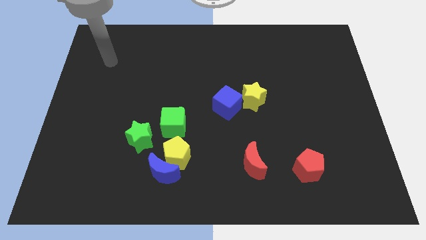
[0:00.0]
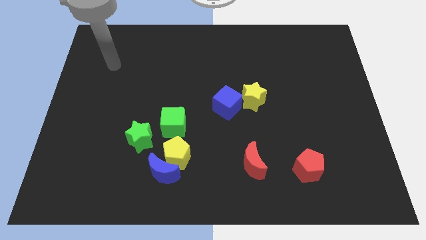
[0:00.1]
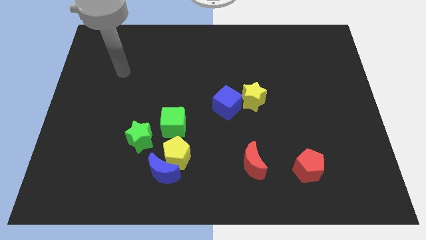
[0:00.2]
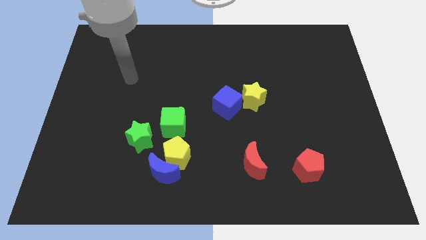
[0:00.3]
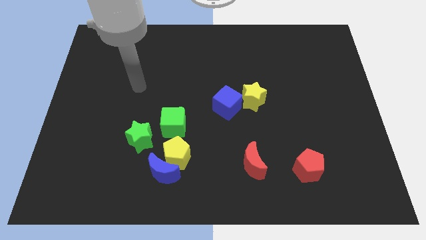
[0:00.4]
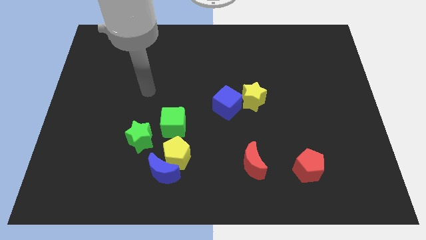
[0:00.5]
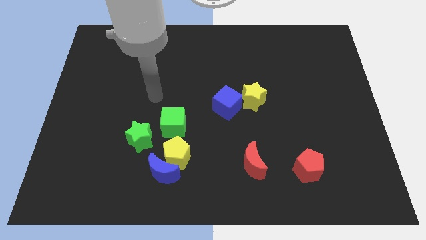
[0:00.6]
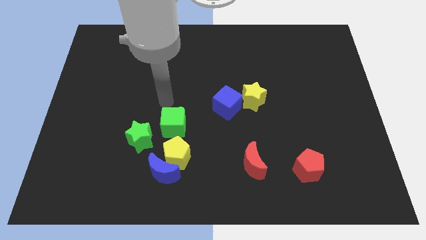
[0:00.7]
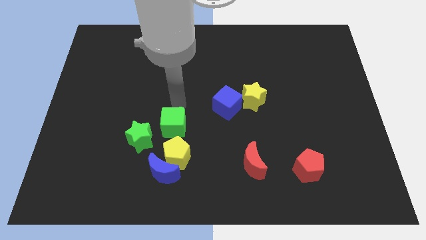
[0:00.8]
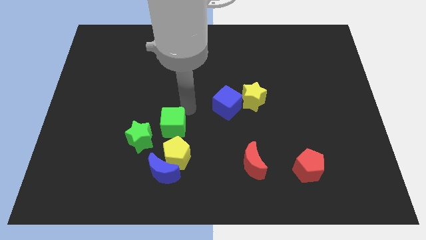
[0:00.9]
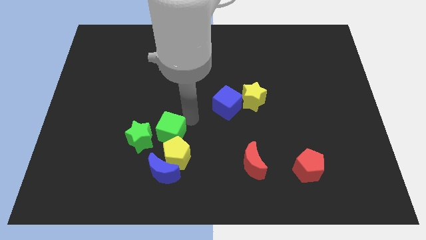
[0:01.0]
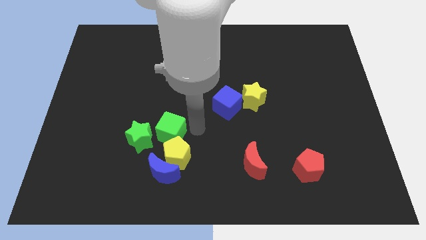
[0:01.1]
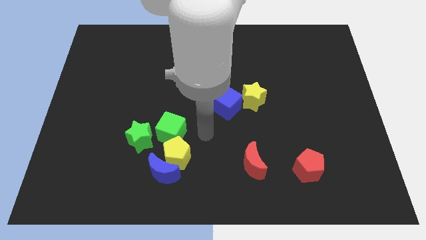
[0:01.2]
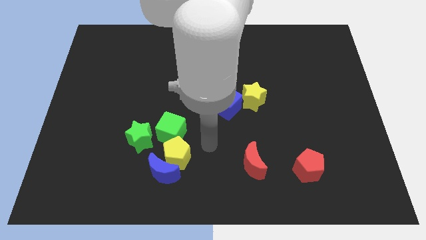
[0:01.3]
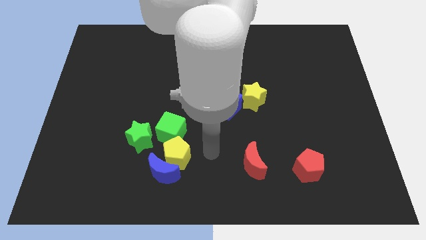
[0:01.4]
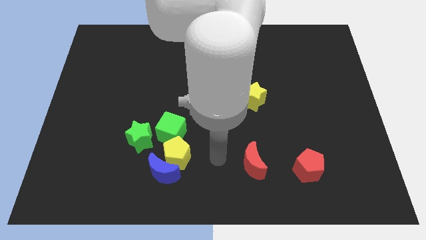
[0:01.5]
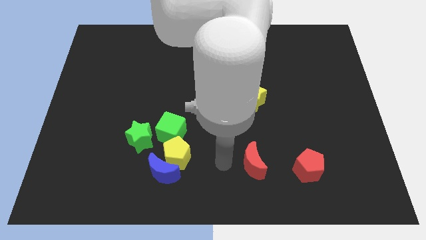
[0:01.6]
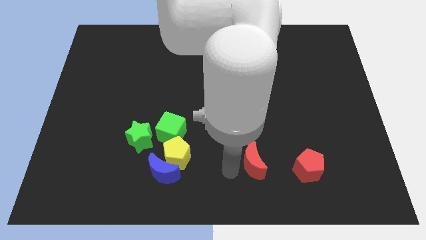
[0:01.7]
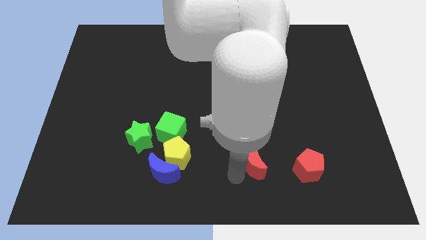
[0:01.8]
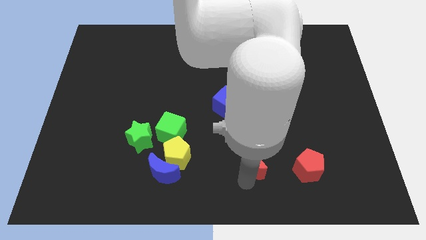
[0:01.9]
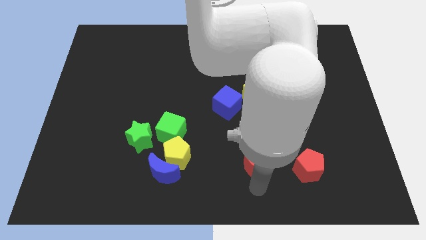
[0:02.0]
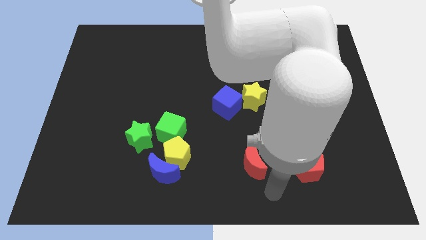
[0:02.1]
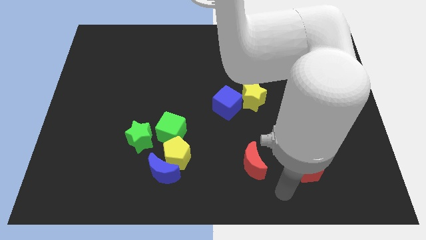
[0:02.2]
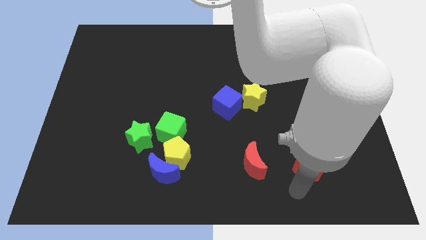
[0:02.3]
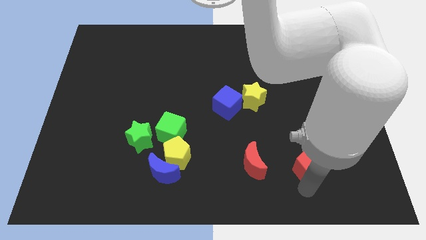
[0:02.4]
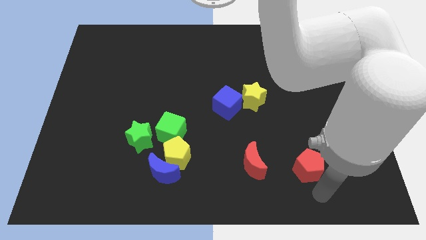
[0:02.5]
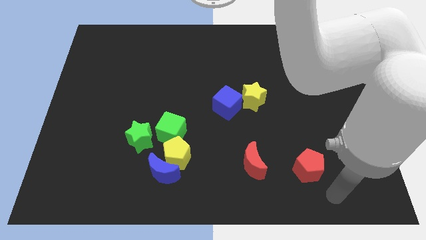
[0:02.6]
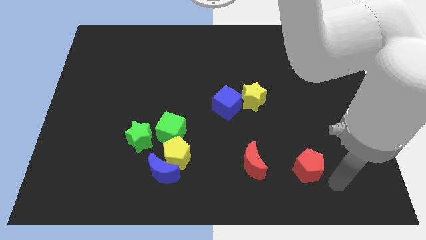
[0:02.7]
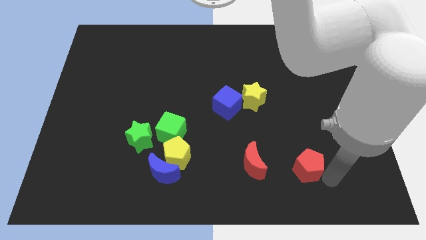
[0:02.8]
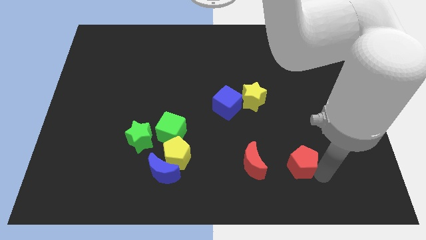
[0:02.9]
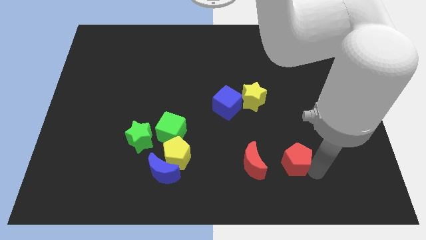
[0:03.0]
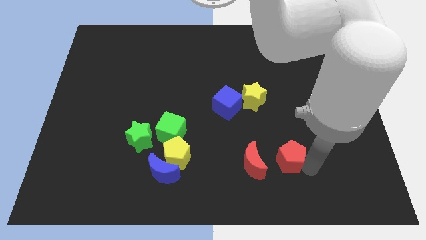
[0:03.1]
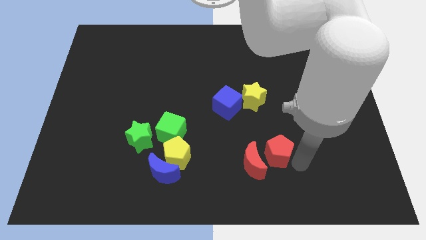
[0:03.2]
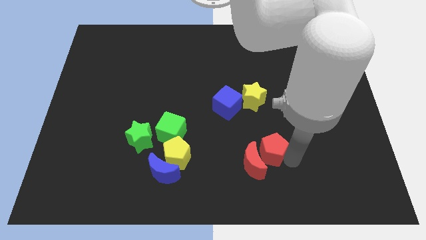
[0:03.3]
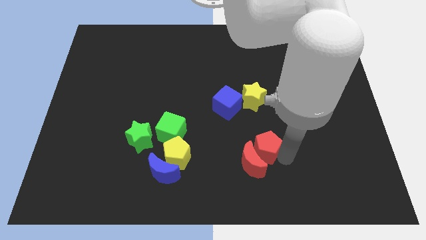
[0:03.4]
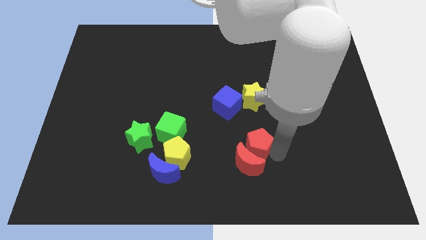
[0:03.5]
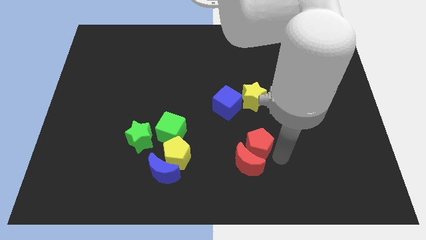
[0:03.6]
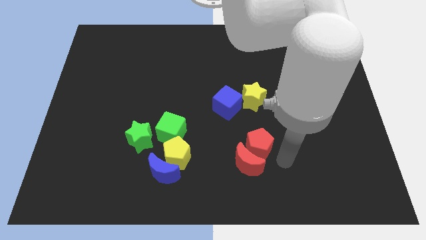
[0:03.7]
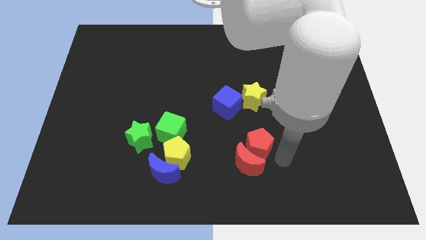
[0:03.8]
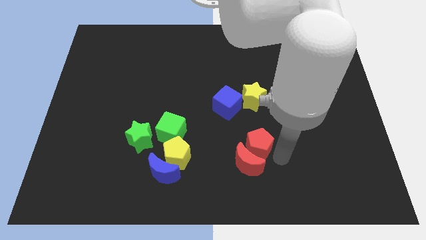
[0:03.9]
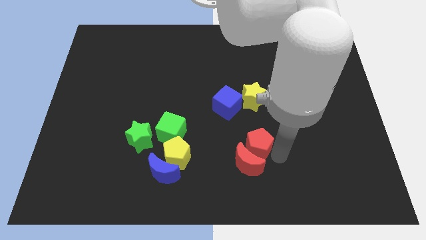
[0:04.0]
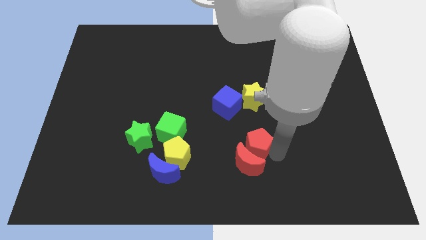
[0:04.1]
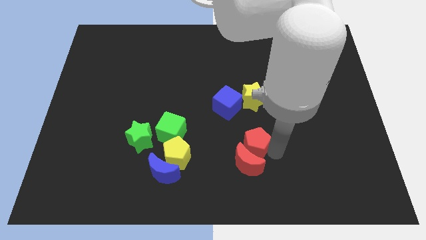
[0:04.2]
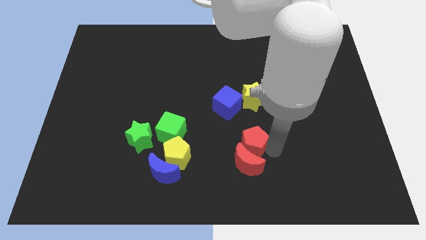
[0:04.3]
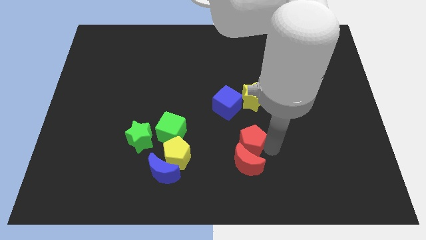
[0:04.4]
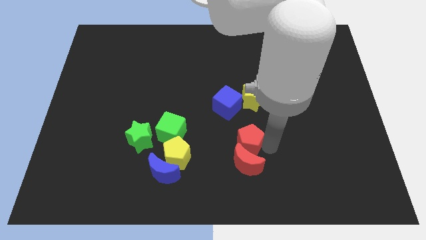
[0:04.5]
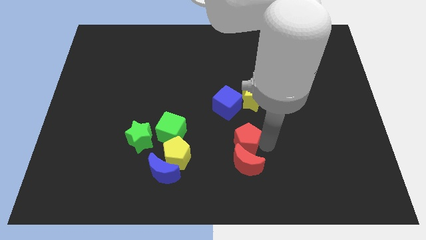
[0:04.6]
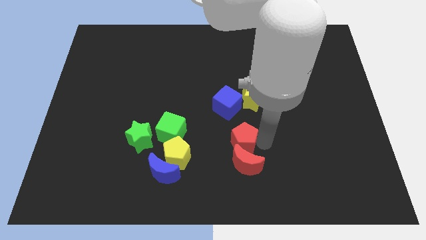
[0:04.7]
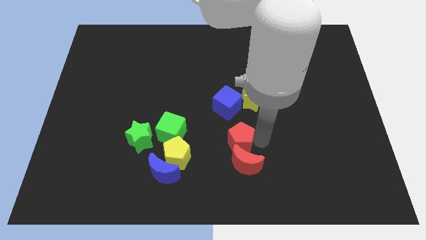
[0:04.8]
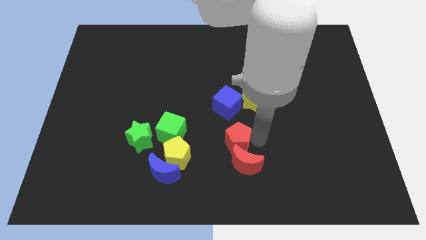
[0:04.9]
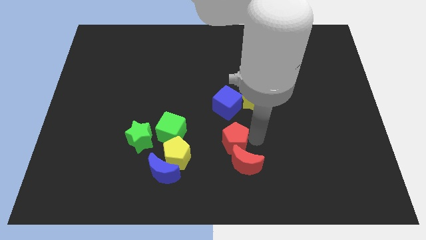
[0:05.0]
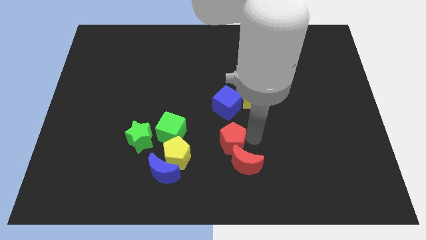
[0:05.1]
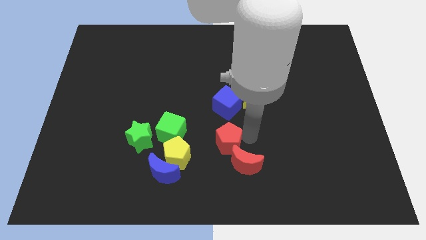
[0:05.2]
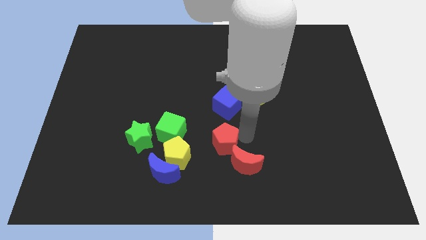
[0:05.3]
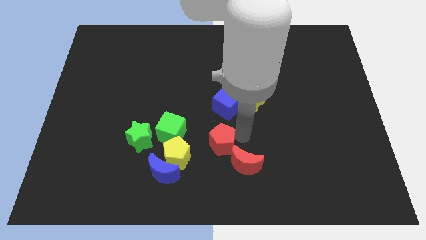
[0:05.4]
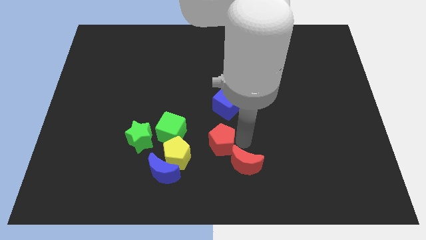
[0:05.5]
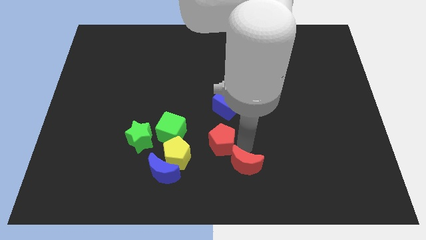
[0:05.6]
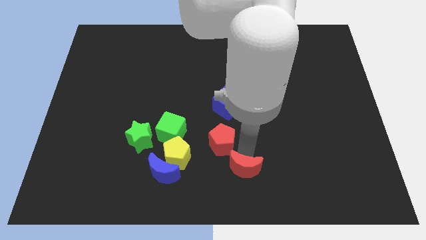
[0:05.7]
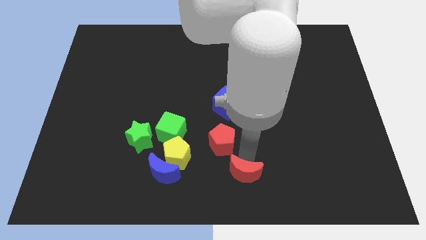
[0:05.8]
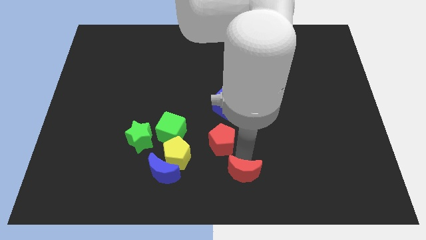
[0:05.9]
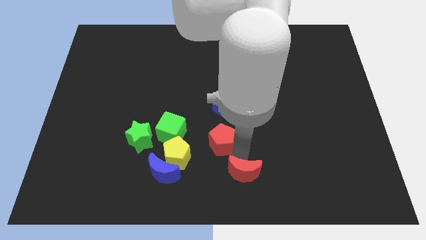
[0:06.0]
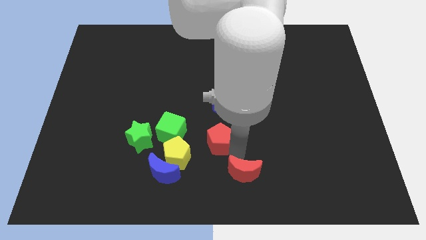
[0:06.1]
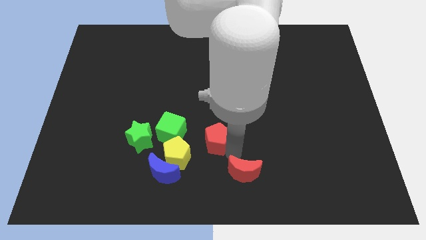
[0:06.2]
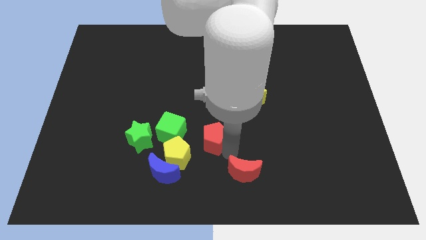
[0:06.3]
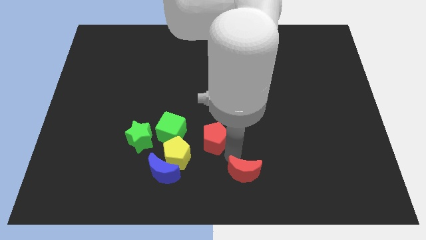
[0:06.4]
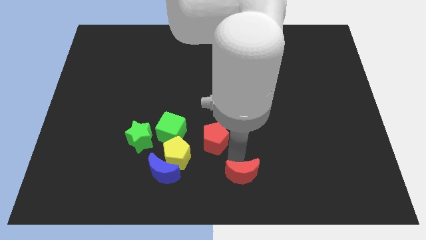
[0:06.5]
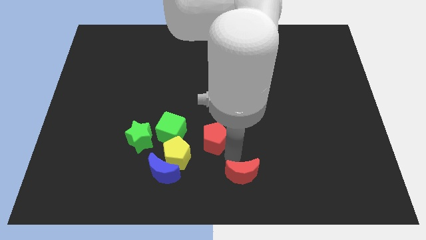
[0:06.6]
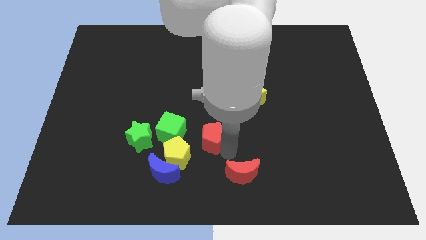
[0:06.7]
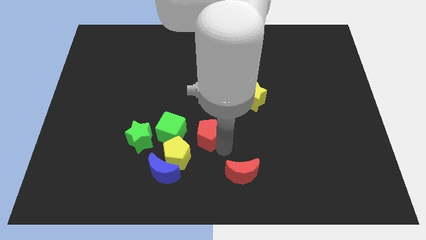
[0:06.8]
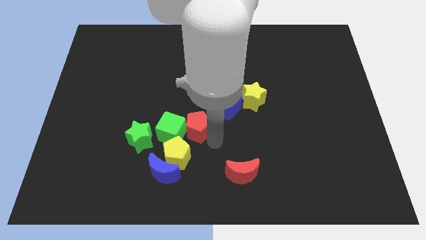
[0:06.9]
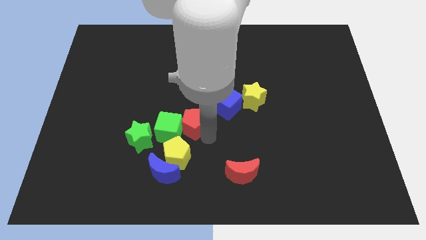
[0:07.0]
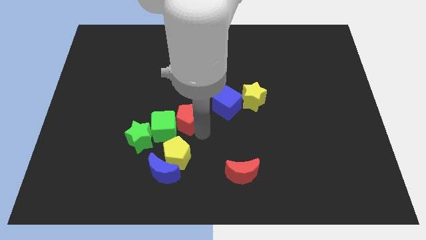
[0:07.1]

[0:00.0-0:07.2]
push the red pentagon just left of the blue cube
